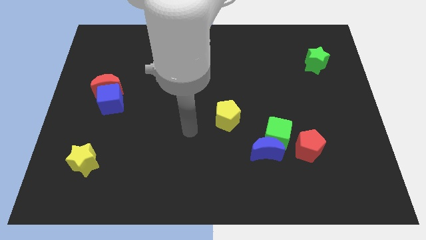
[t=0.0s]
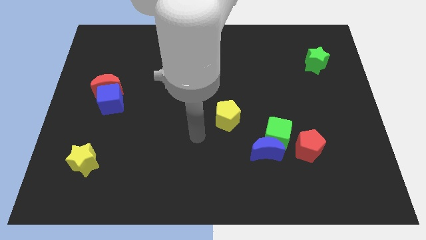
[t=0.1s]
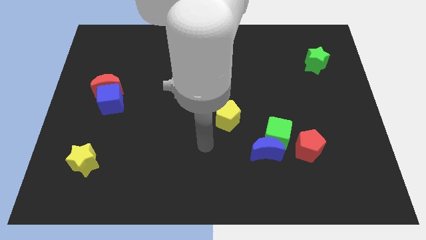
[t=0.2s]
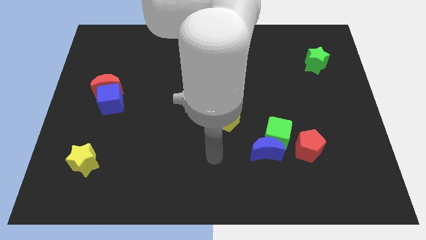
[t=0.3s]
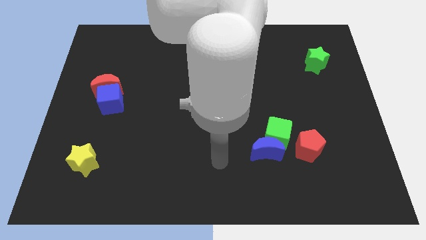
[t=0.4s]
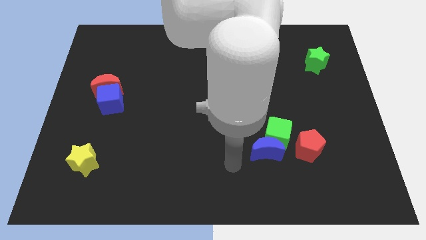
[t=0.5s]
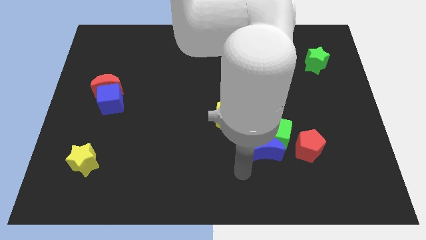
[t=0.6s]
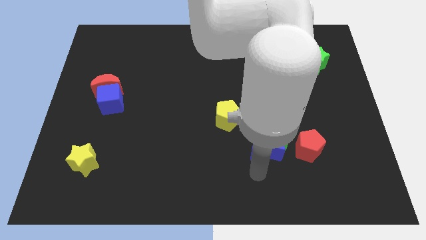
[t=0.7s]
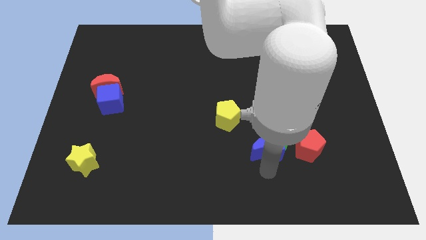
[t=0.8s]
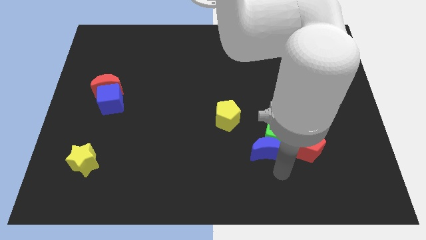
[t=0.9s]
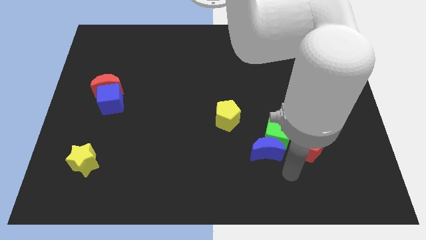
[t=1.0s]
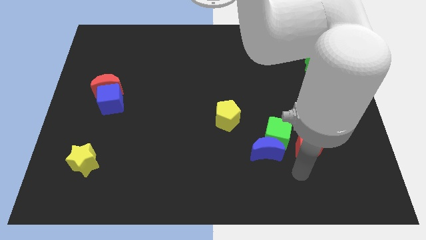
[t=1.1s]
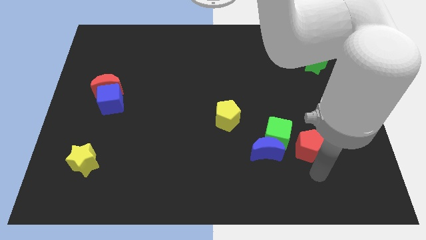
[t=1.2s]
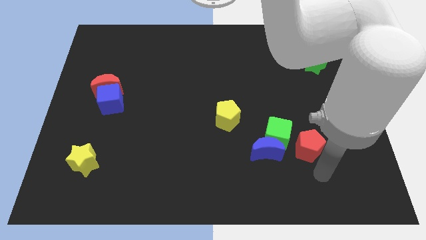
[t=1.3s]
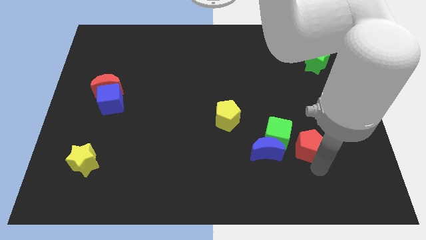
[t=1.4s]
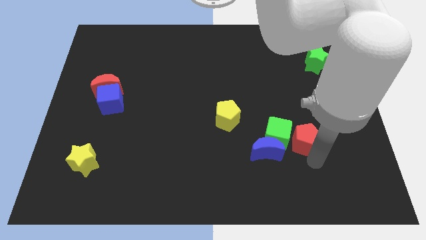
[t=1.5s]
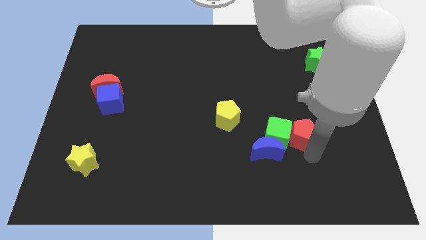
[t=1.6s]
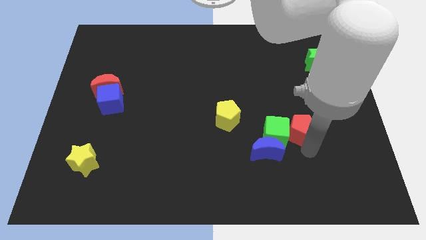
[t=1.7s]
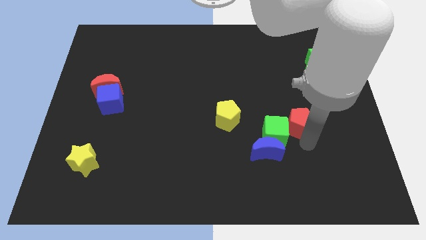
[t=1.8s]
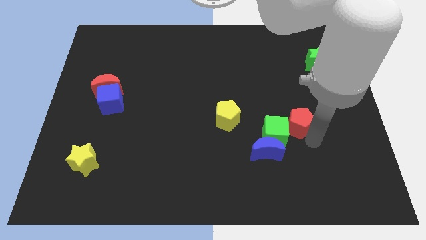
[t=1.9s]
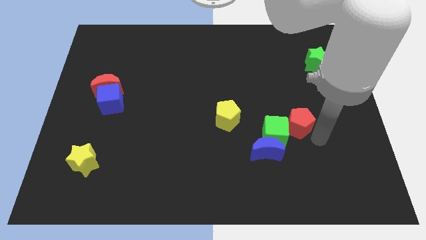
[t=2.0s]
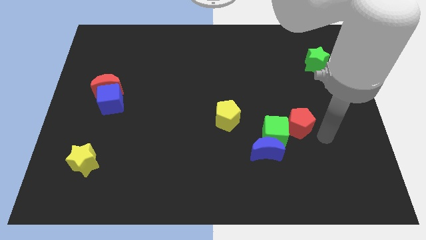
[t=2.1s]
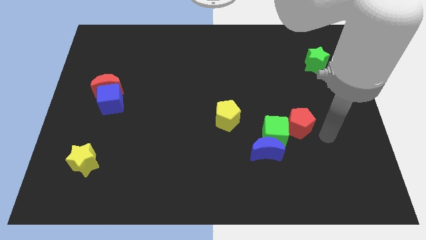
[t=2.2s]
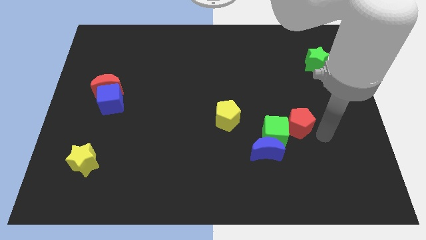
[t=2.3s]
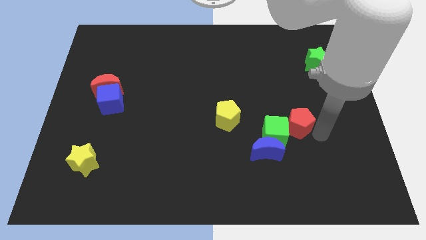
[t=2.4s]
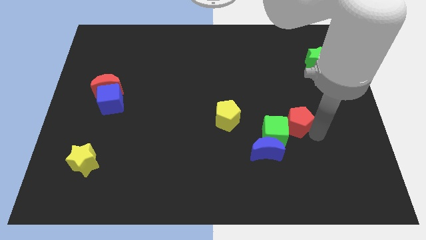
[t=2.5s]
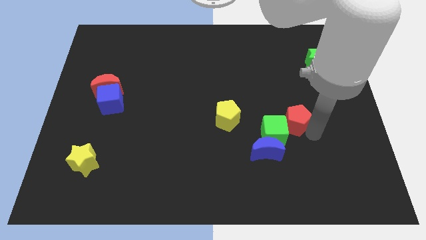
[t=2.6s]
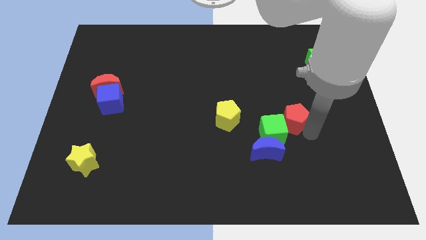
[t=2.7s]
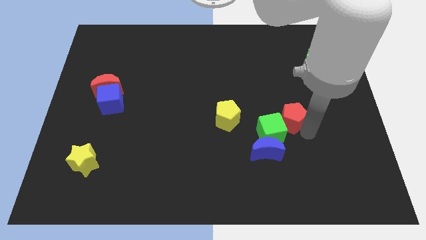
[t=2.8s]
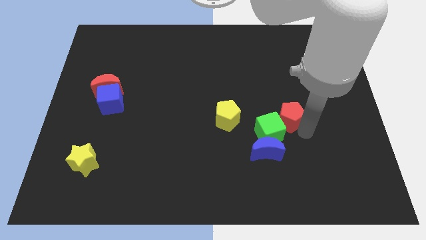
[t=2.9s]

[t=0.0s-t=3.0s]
slide the red pentagon a bit up and to the left

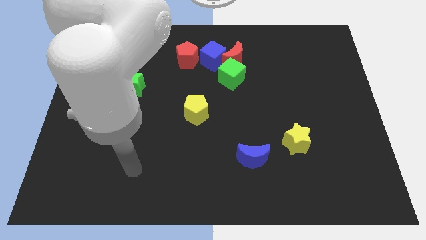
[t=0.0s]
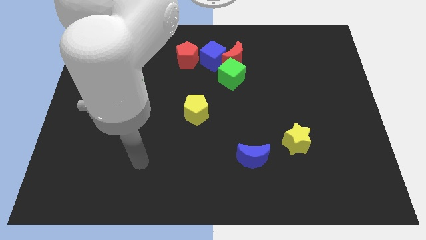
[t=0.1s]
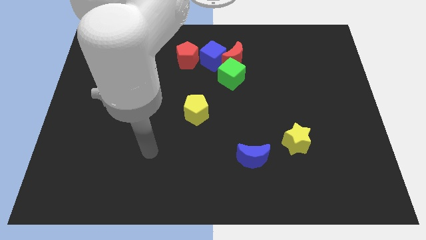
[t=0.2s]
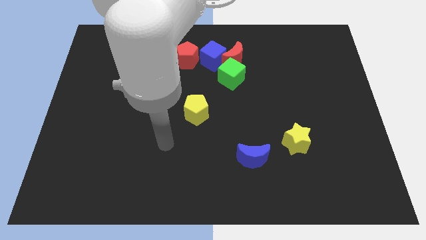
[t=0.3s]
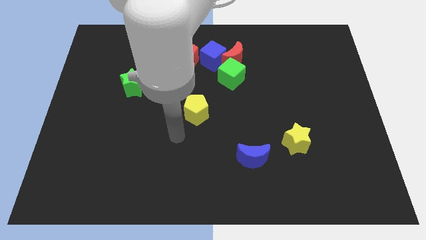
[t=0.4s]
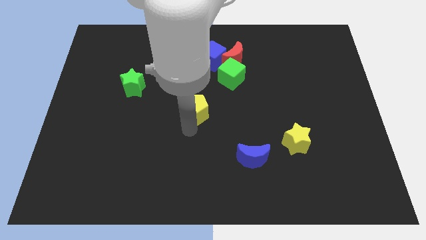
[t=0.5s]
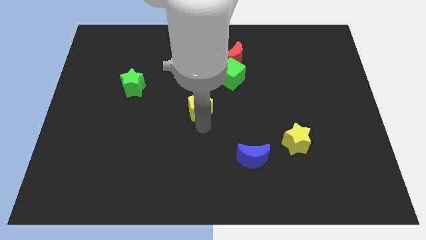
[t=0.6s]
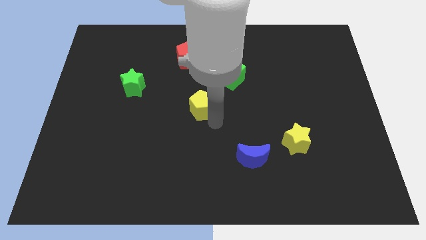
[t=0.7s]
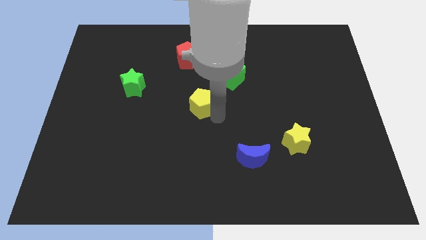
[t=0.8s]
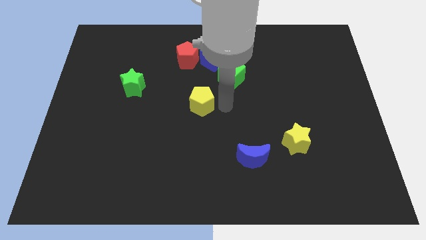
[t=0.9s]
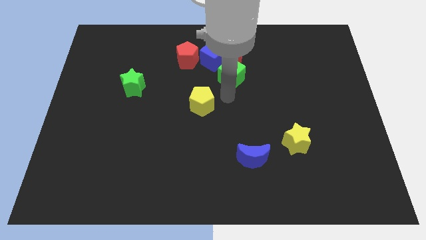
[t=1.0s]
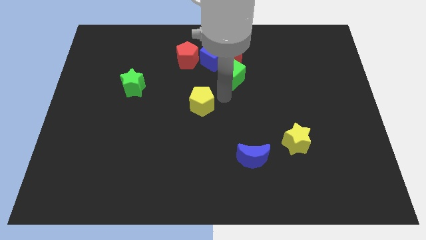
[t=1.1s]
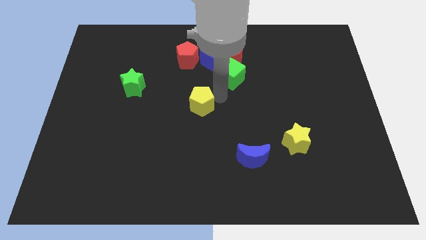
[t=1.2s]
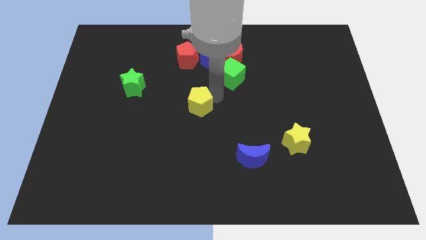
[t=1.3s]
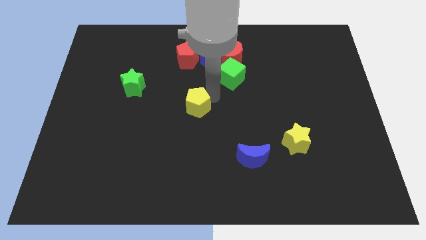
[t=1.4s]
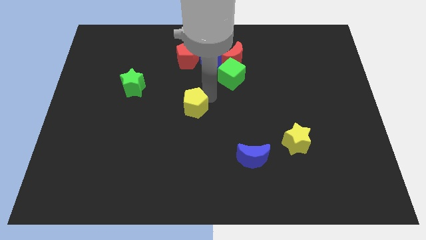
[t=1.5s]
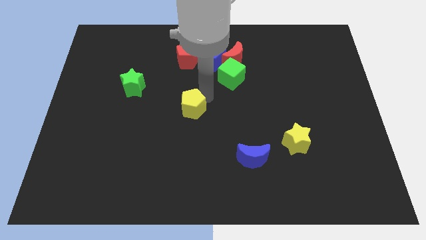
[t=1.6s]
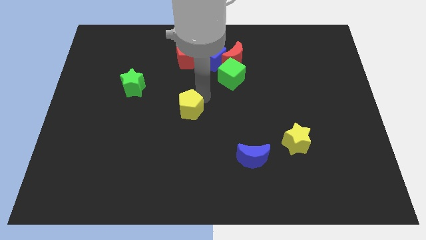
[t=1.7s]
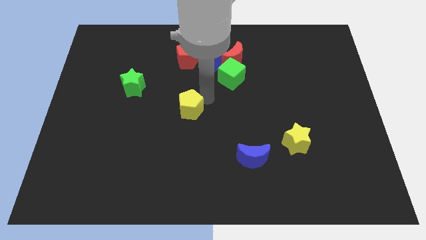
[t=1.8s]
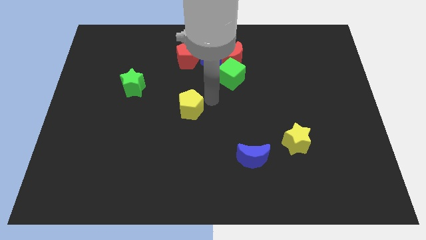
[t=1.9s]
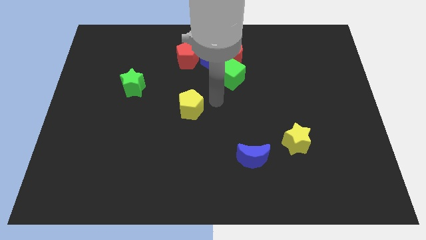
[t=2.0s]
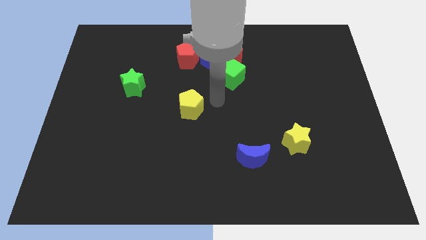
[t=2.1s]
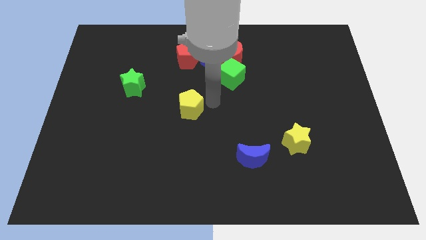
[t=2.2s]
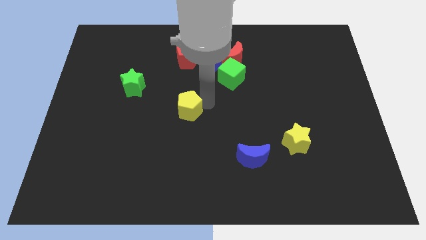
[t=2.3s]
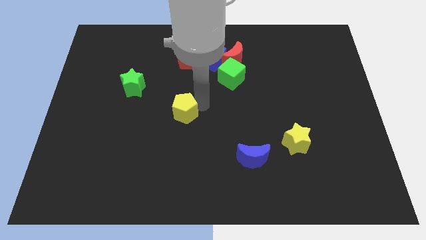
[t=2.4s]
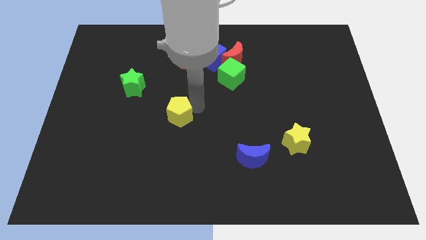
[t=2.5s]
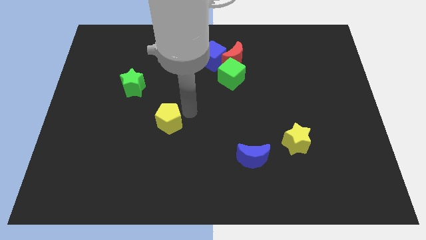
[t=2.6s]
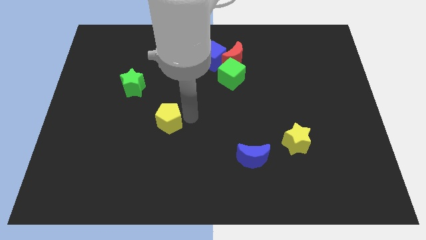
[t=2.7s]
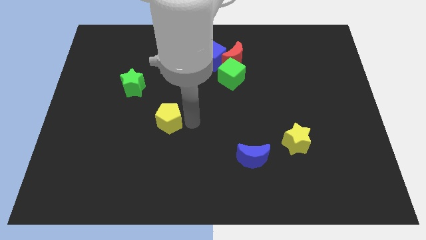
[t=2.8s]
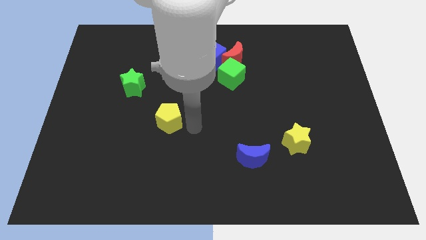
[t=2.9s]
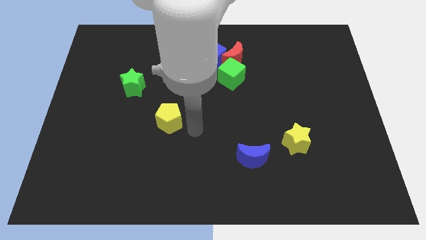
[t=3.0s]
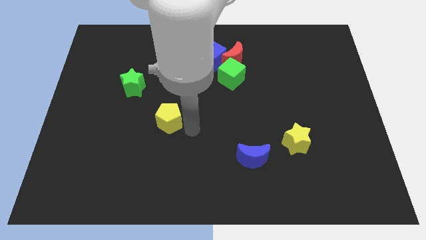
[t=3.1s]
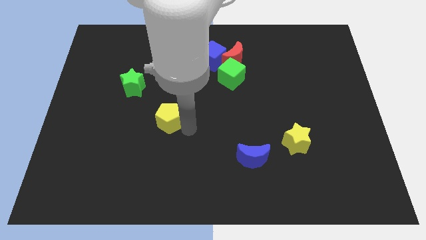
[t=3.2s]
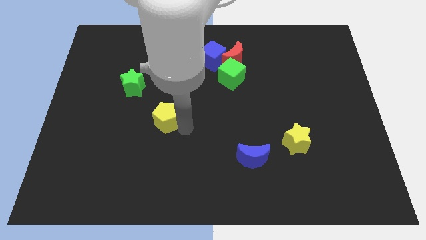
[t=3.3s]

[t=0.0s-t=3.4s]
slide the yellow pentagon left slightly

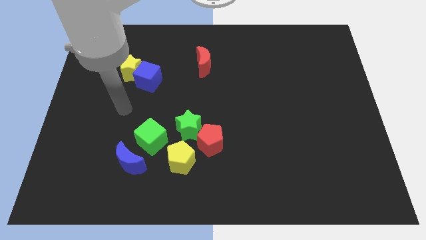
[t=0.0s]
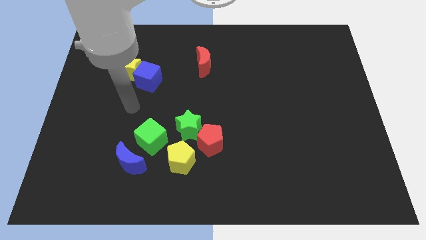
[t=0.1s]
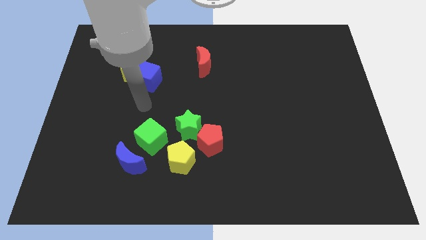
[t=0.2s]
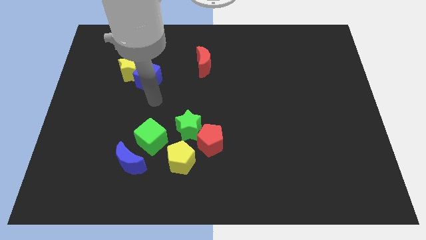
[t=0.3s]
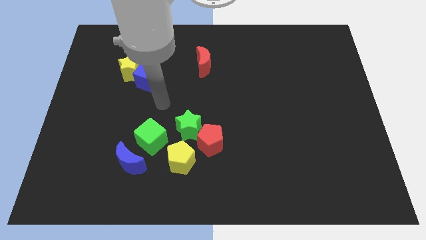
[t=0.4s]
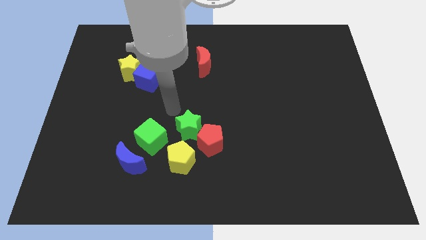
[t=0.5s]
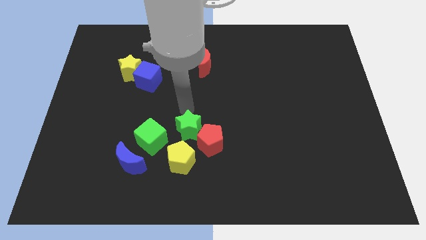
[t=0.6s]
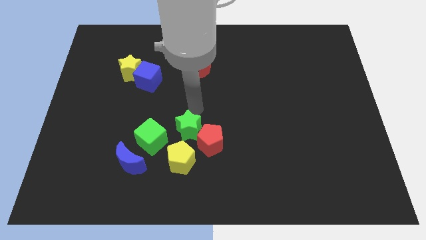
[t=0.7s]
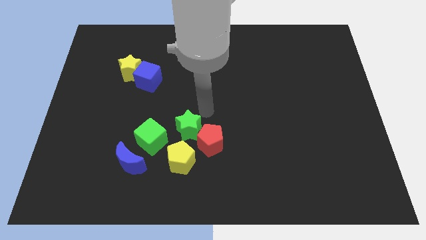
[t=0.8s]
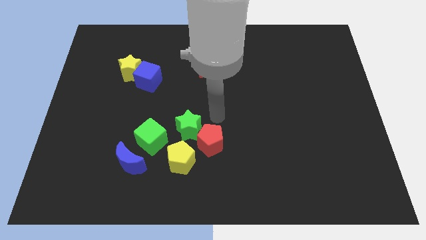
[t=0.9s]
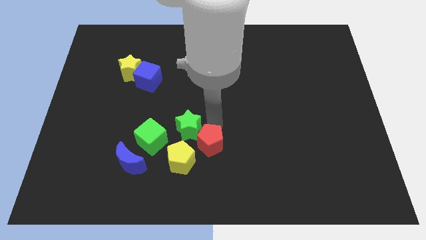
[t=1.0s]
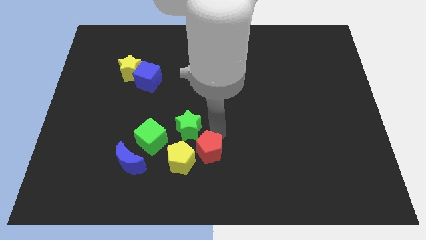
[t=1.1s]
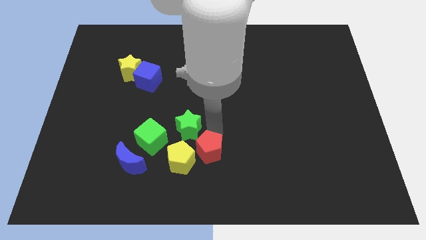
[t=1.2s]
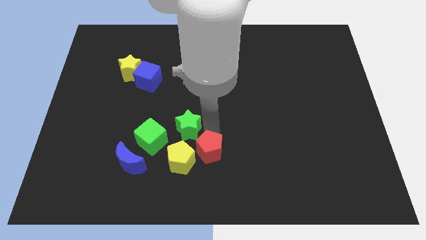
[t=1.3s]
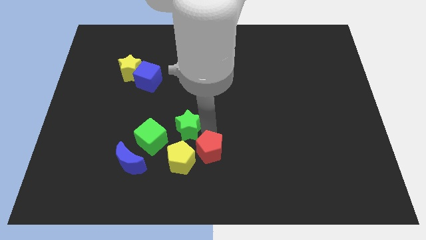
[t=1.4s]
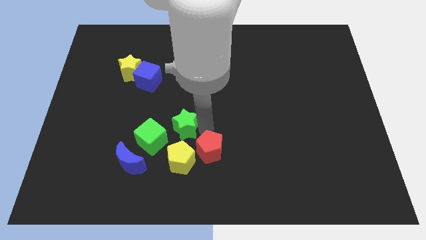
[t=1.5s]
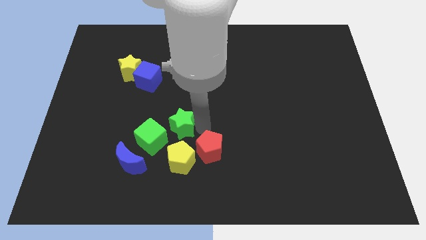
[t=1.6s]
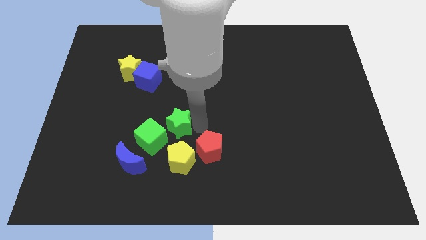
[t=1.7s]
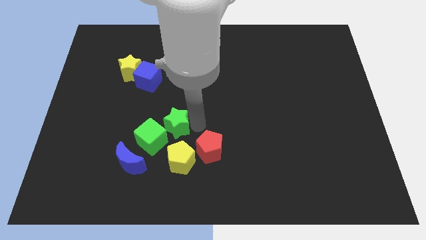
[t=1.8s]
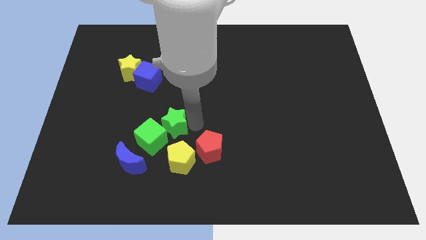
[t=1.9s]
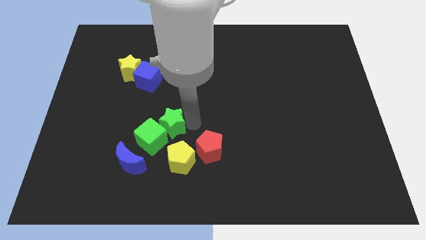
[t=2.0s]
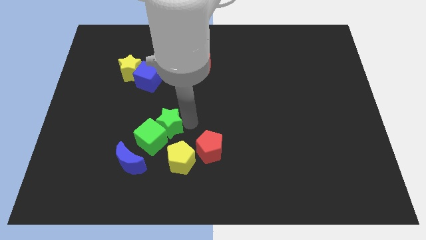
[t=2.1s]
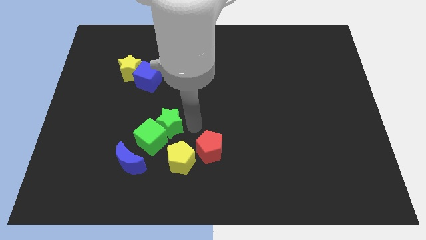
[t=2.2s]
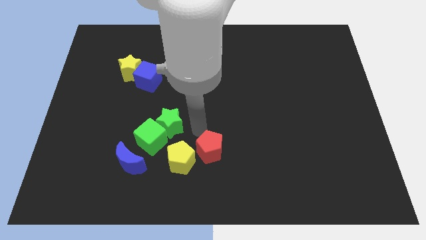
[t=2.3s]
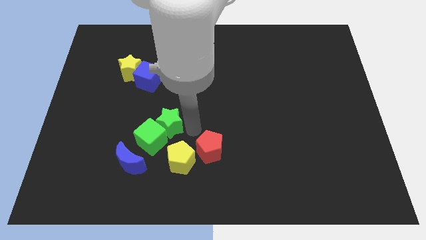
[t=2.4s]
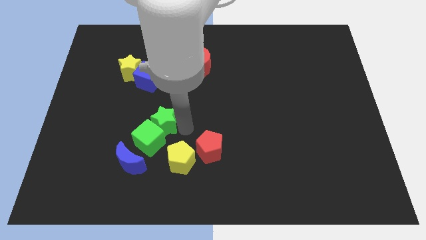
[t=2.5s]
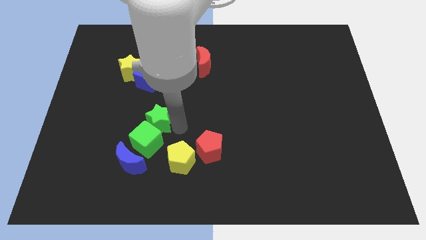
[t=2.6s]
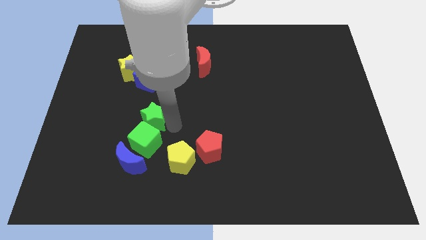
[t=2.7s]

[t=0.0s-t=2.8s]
slightly slide the green star to the left
